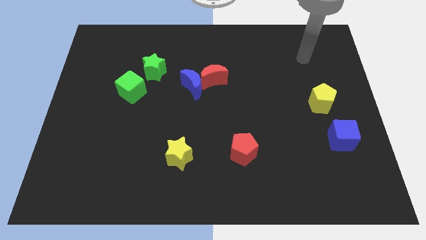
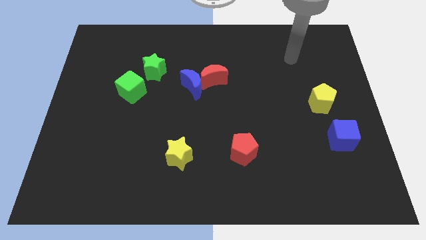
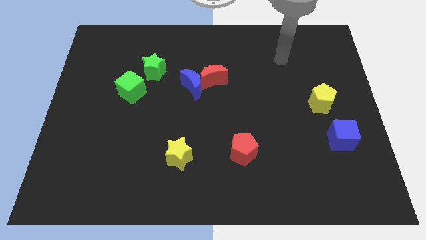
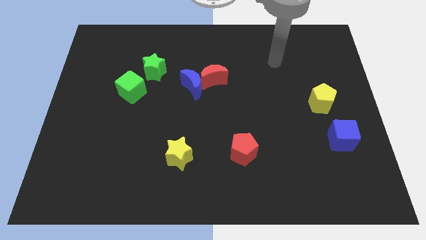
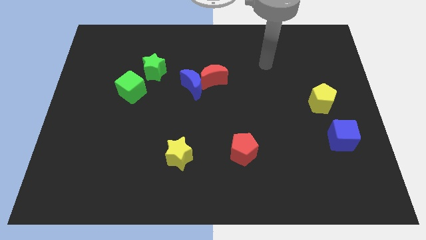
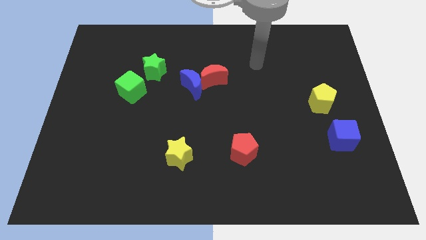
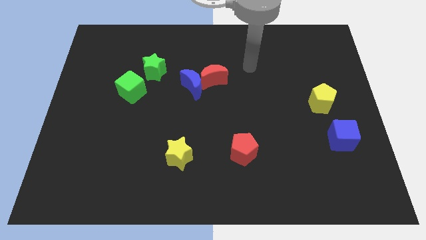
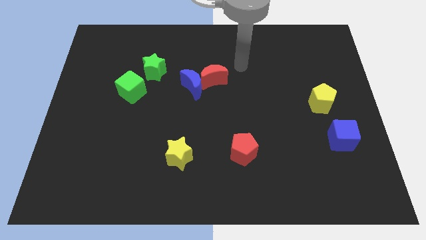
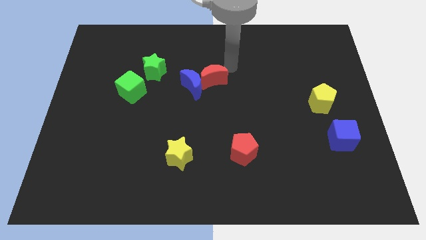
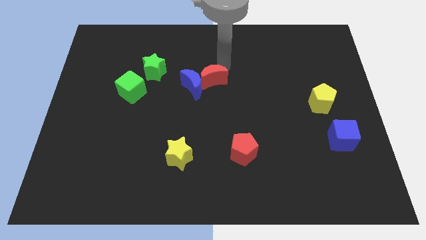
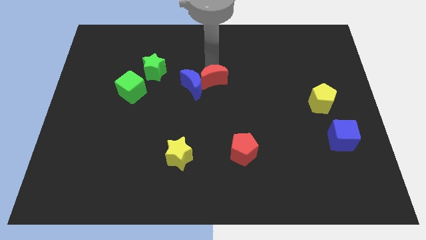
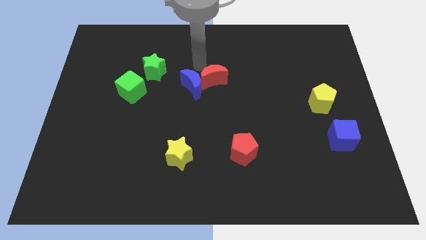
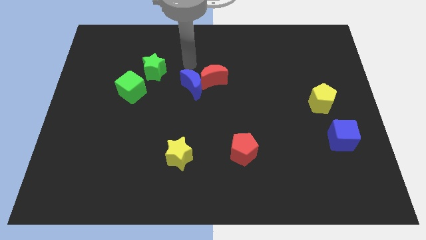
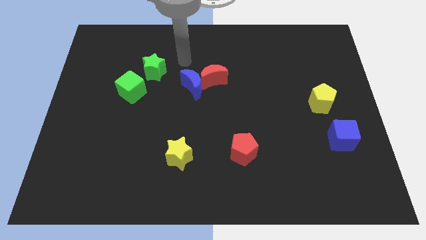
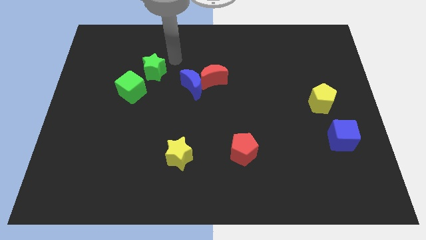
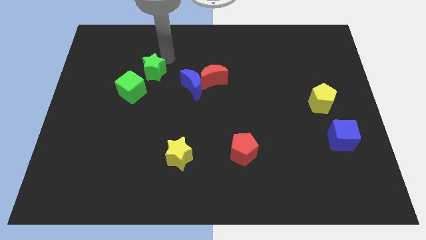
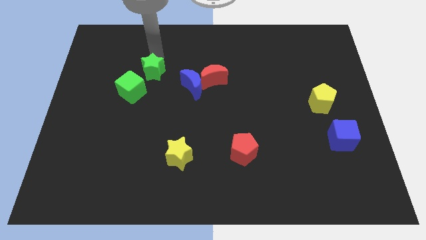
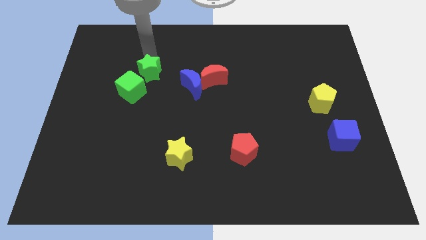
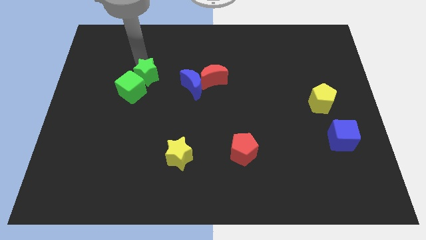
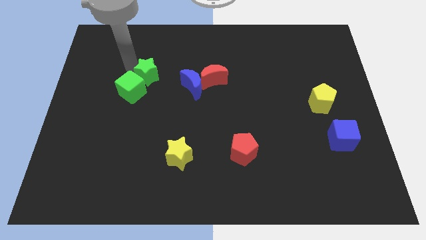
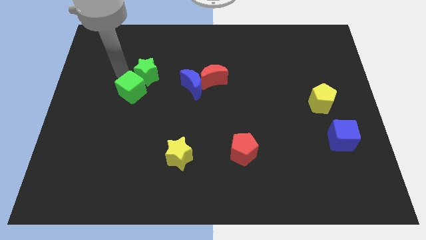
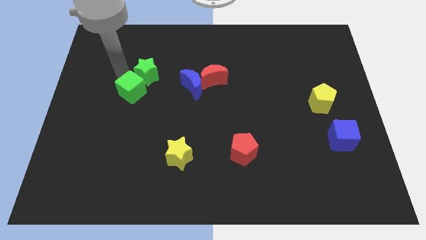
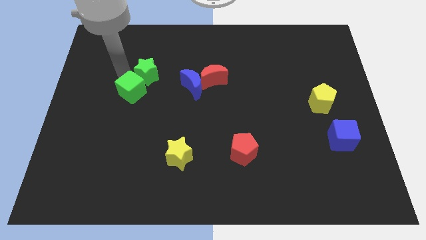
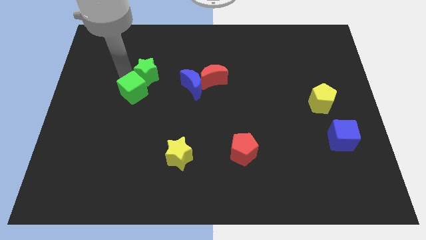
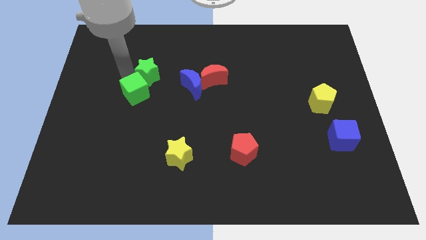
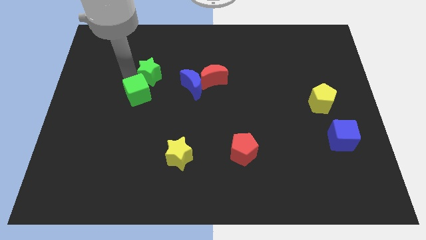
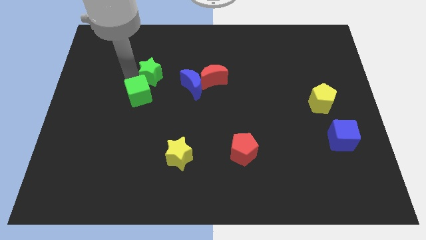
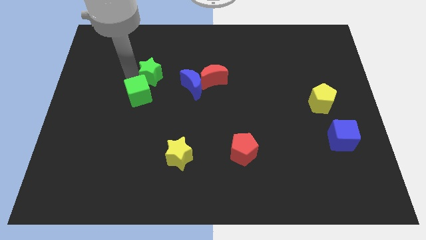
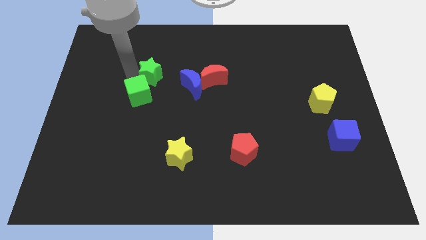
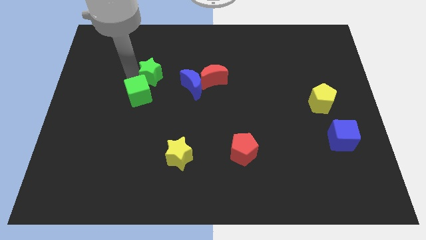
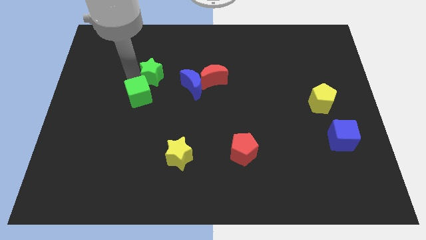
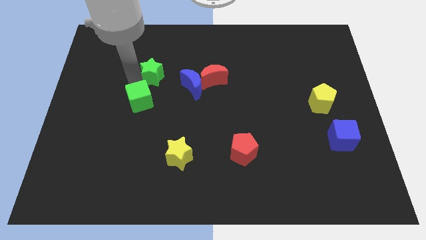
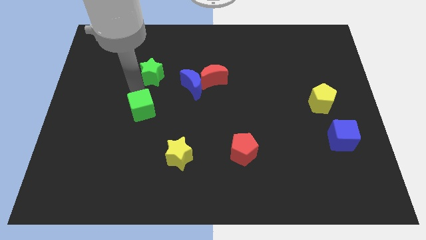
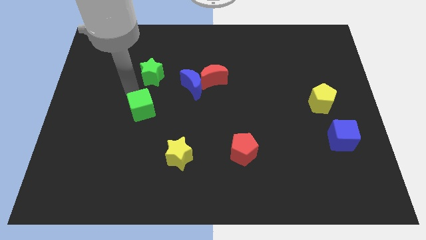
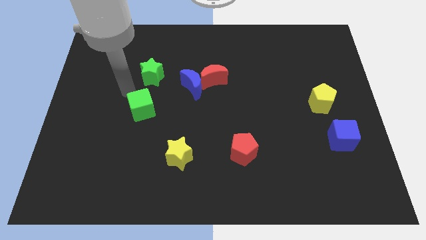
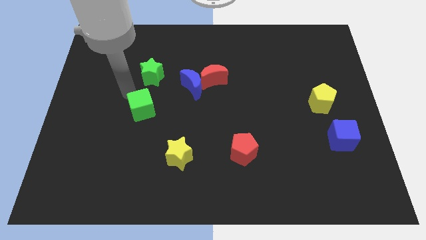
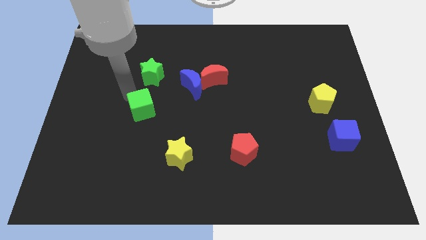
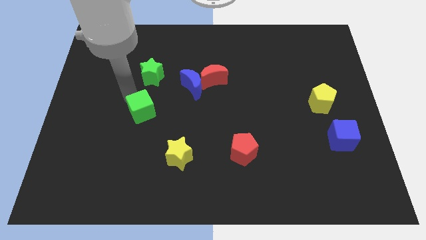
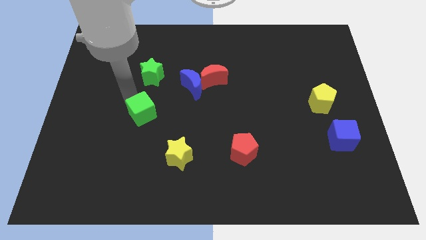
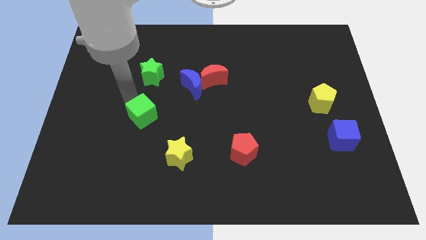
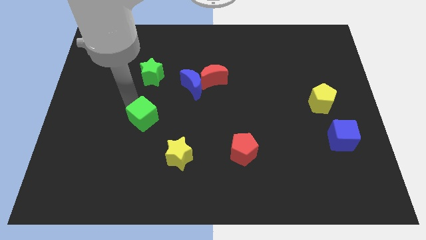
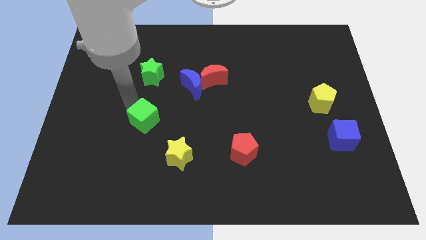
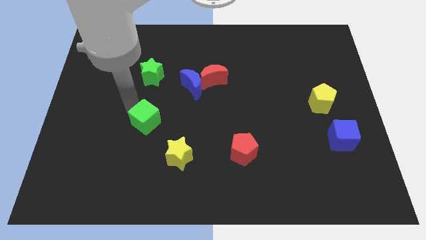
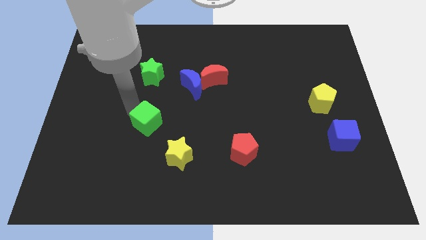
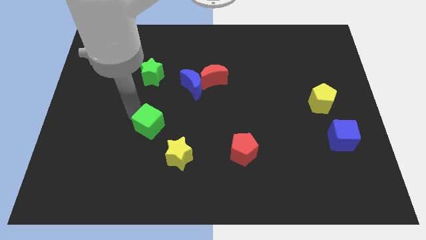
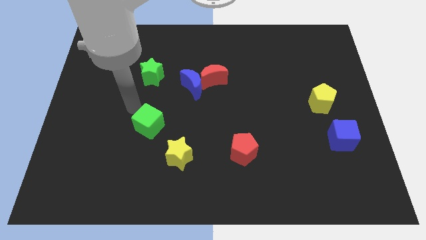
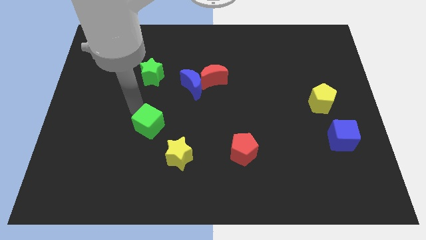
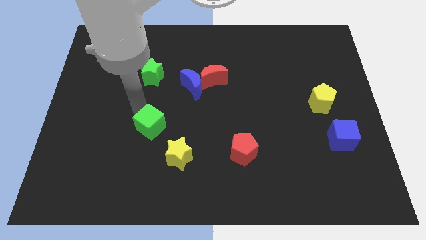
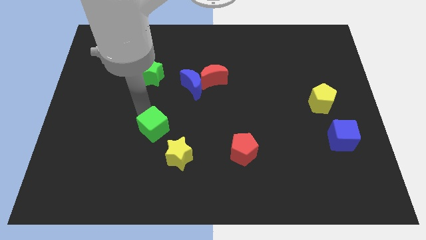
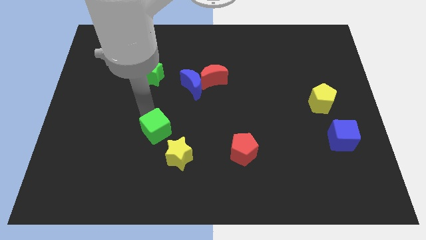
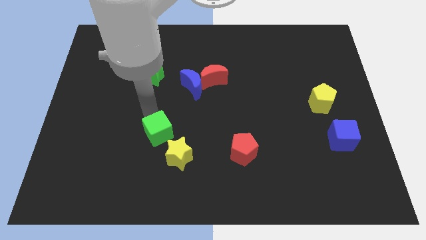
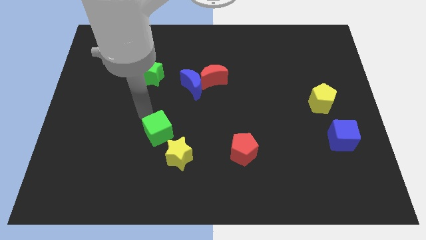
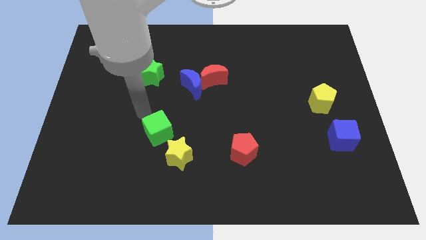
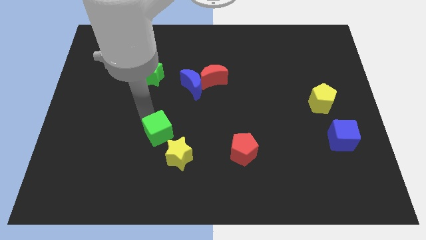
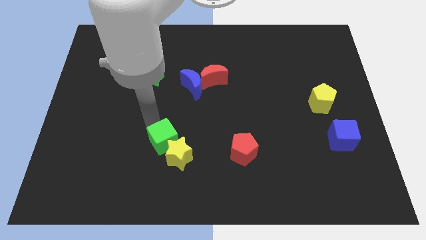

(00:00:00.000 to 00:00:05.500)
put the green cube close to the yellow star

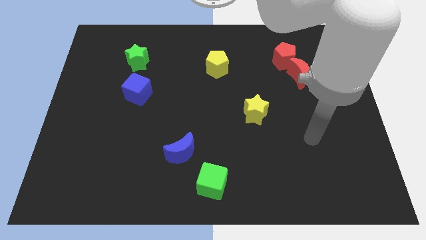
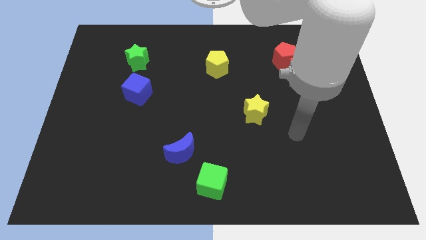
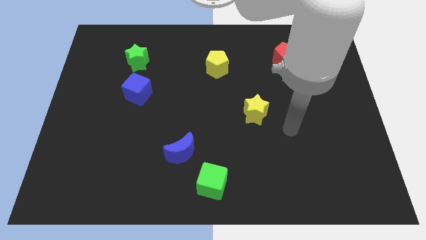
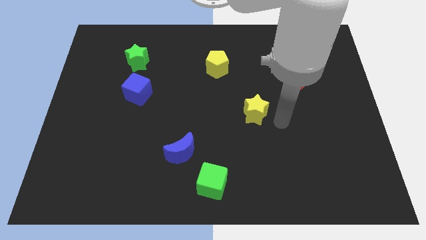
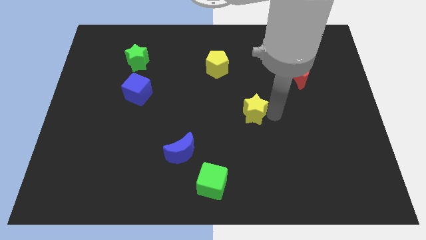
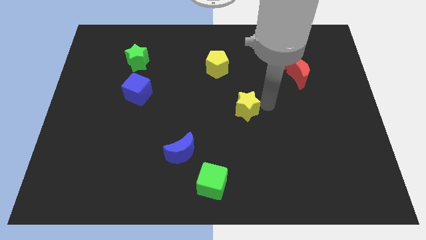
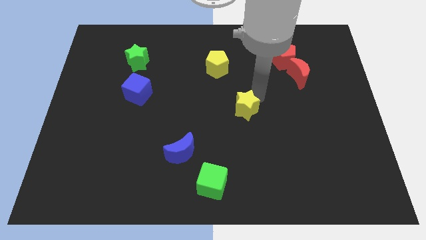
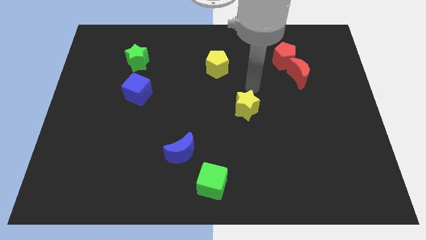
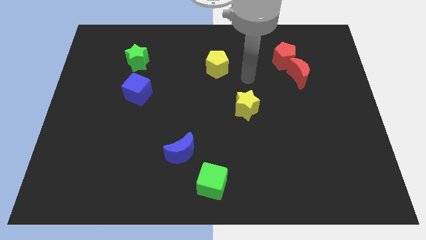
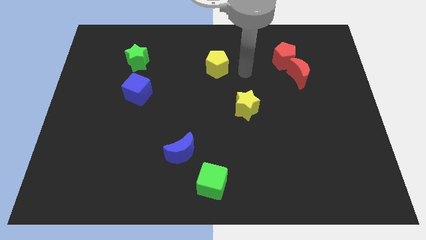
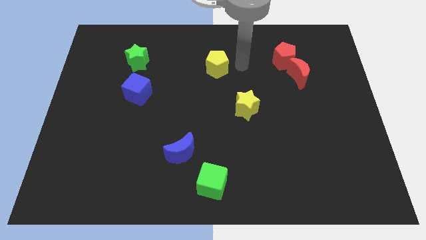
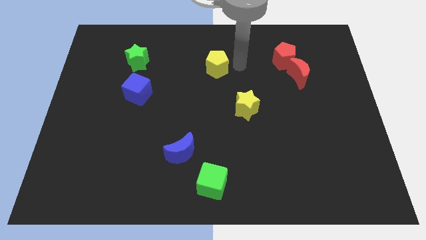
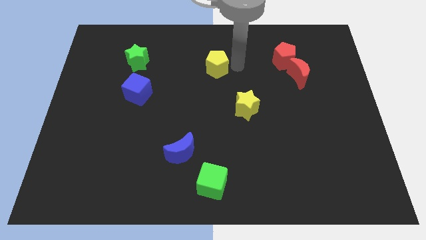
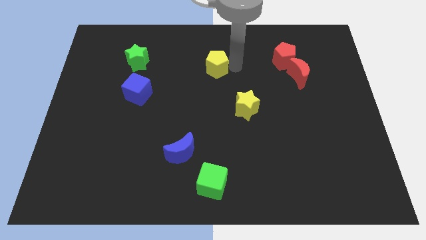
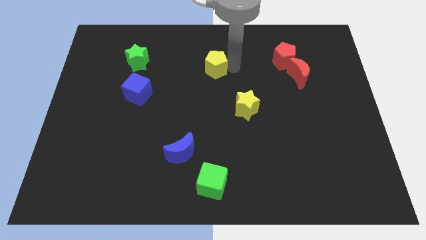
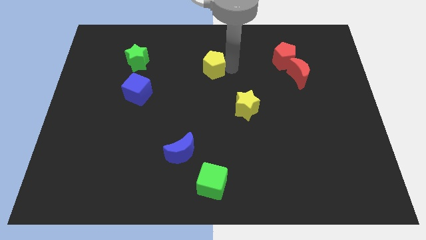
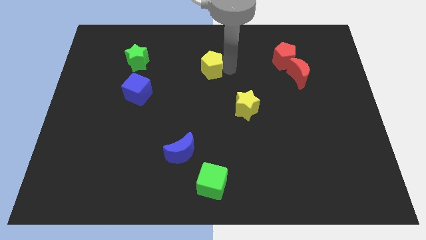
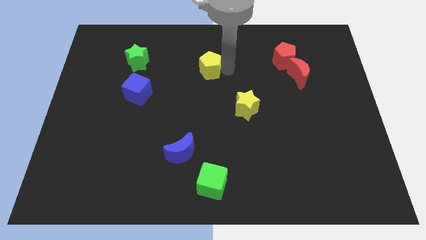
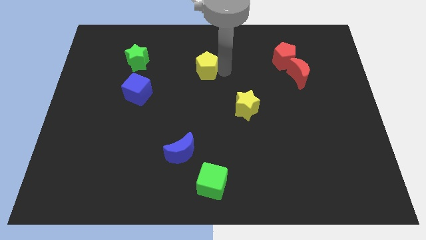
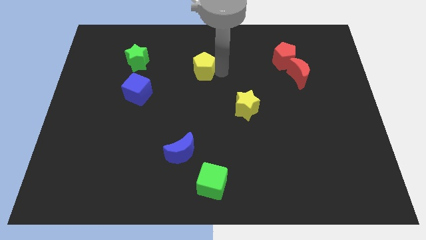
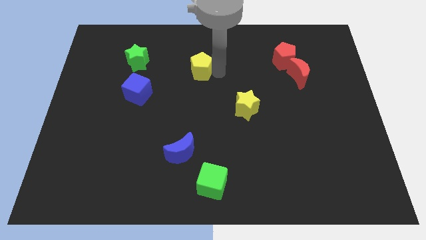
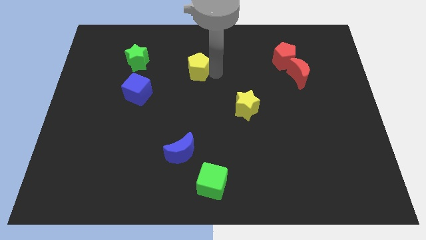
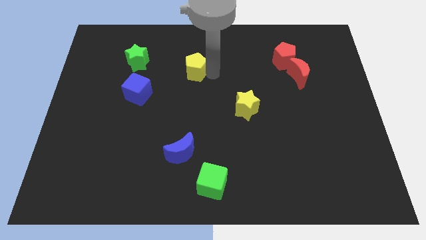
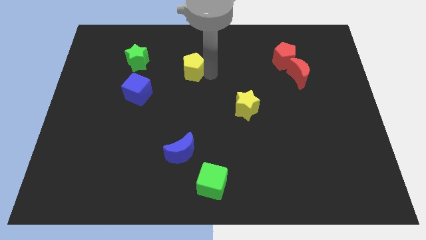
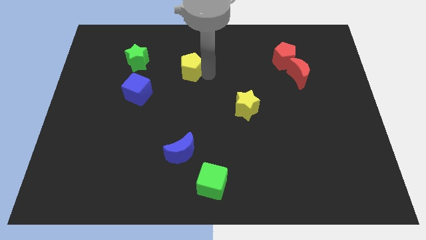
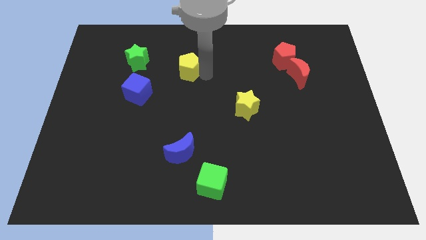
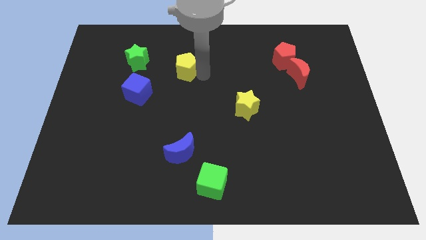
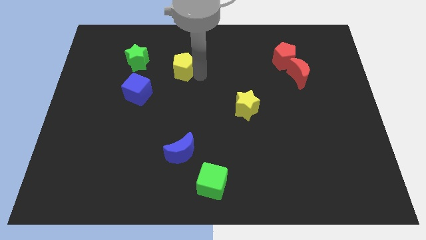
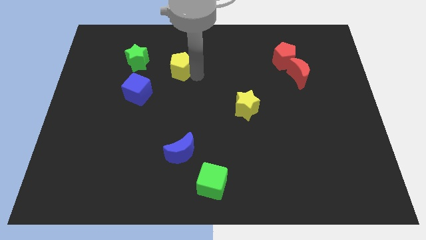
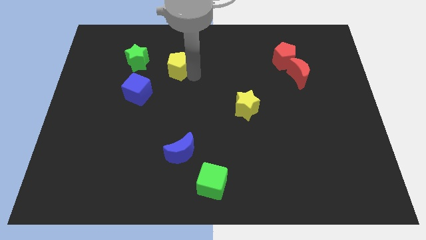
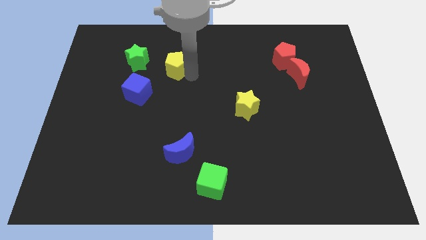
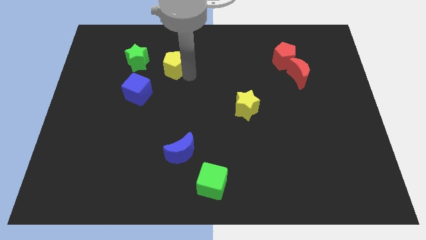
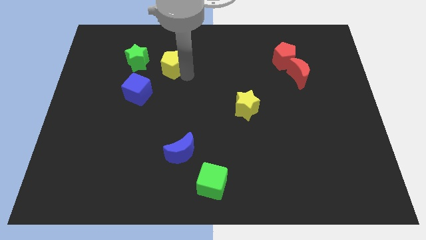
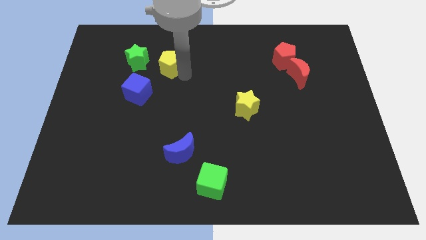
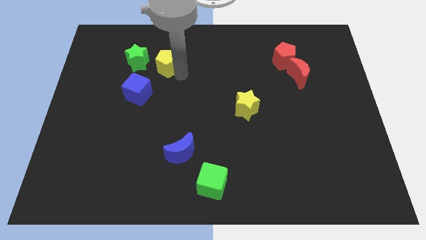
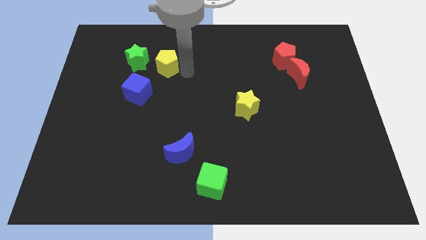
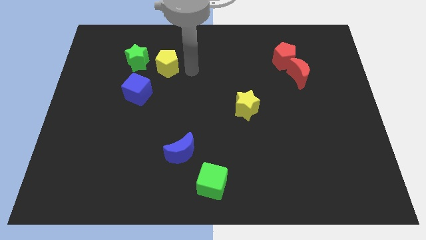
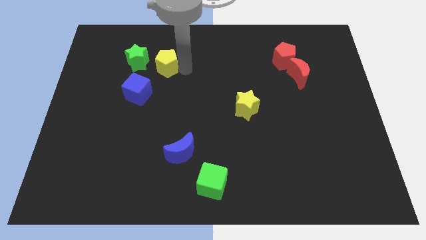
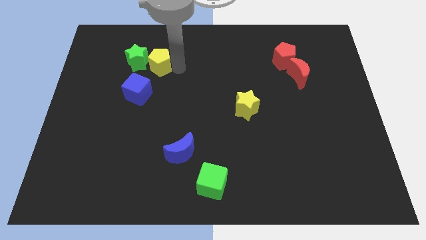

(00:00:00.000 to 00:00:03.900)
slide the yellow pentagon close to the green star
